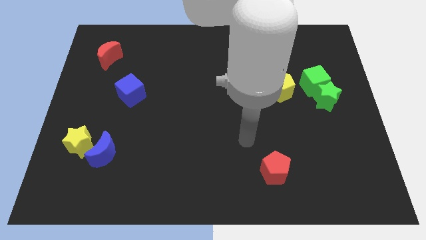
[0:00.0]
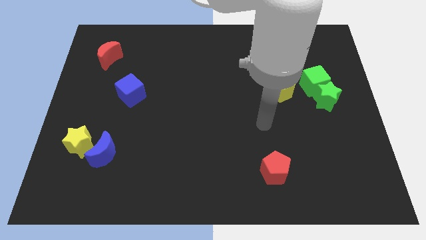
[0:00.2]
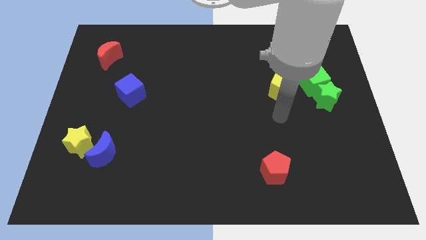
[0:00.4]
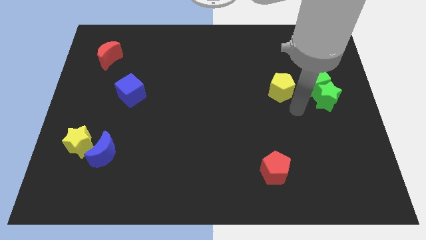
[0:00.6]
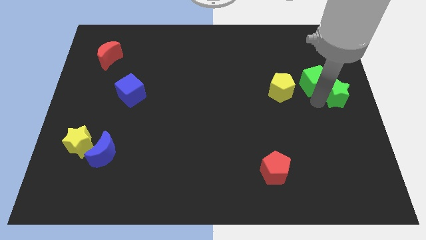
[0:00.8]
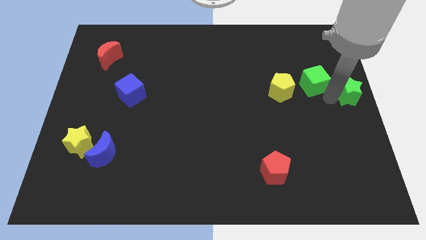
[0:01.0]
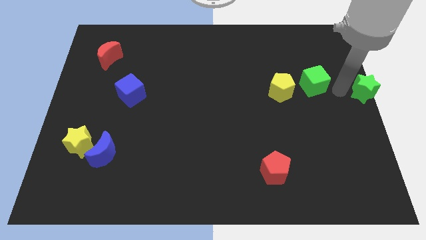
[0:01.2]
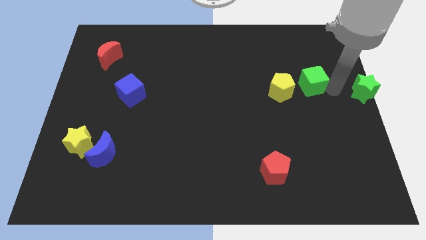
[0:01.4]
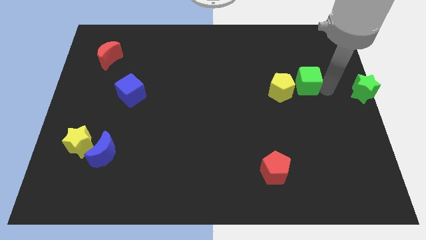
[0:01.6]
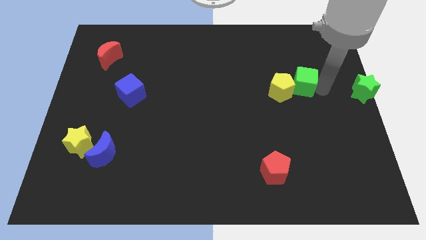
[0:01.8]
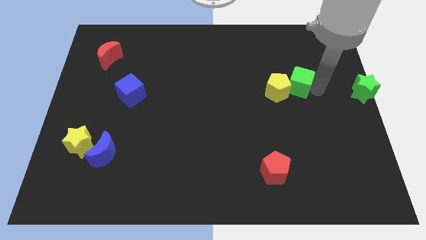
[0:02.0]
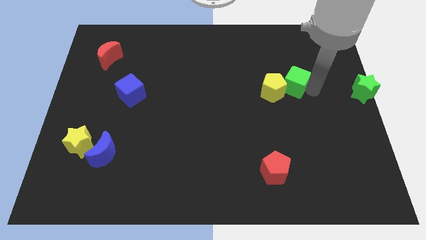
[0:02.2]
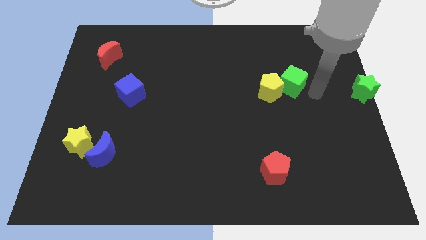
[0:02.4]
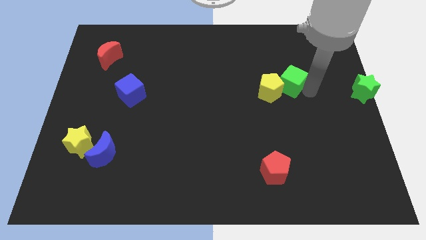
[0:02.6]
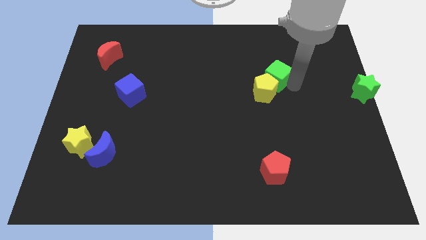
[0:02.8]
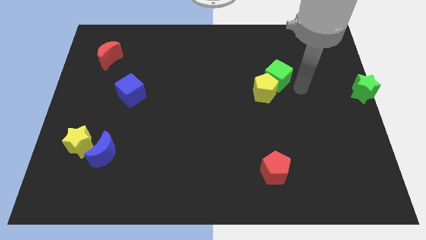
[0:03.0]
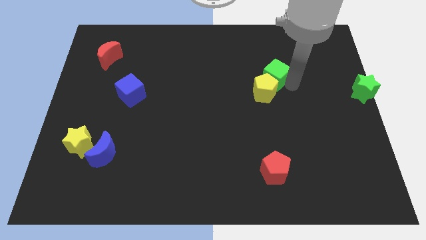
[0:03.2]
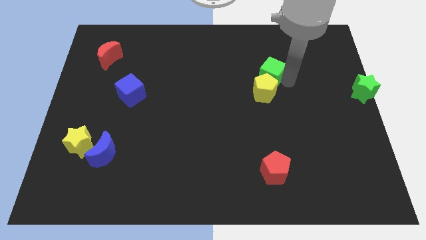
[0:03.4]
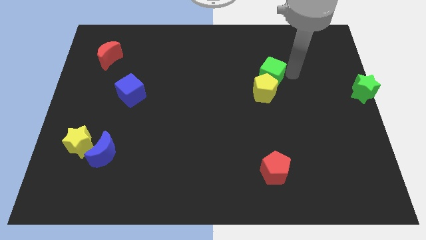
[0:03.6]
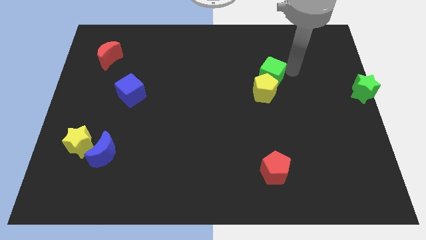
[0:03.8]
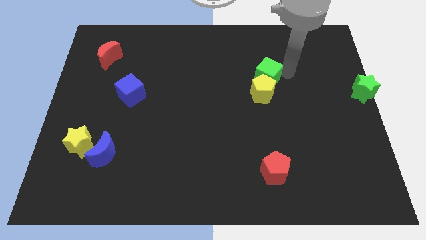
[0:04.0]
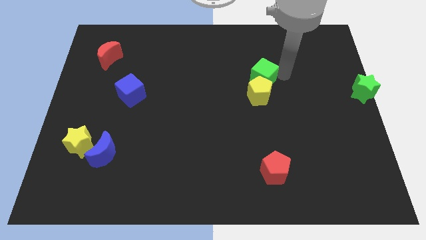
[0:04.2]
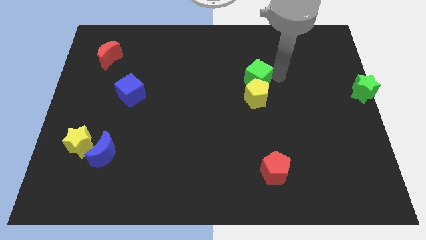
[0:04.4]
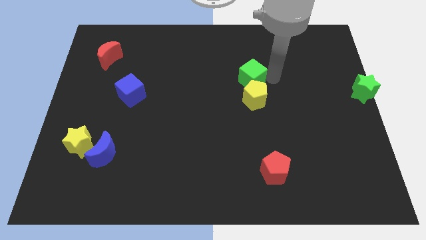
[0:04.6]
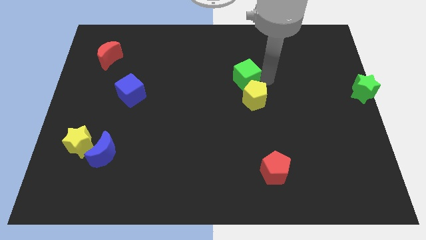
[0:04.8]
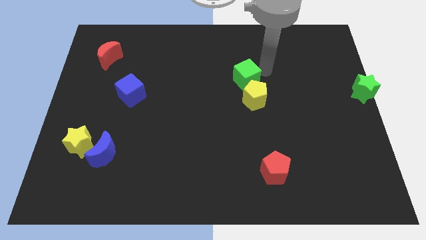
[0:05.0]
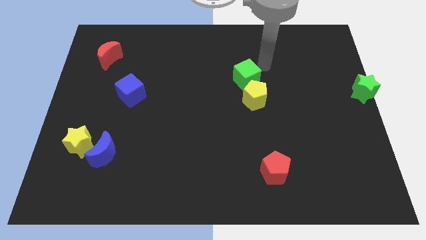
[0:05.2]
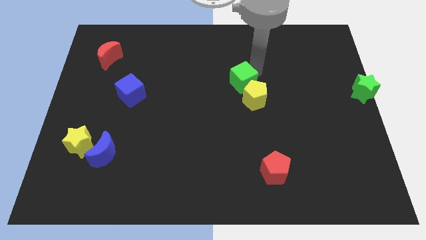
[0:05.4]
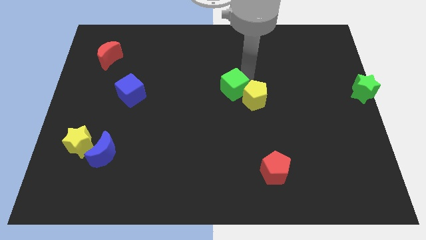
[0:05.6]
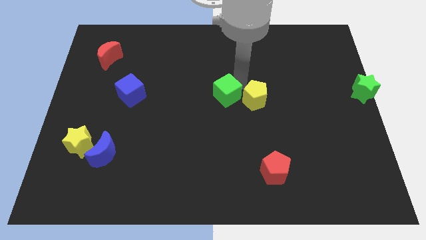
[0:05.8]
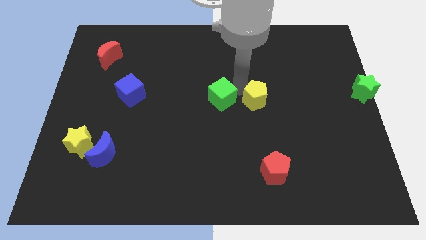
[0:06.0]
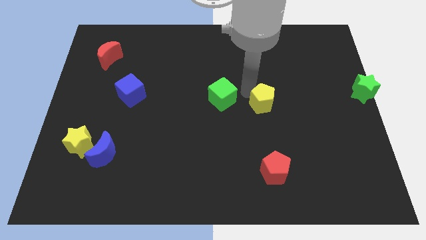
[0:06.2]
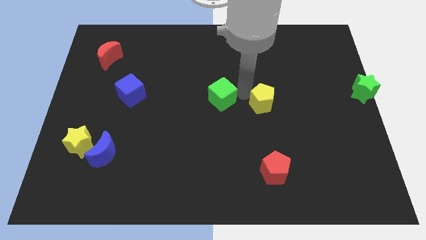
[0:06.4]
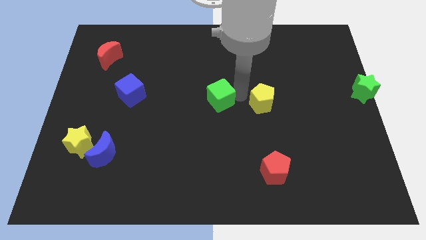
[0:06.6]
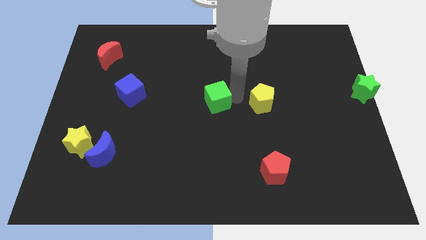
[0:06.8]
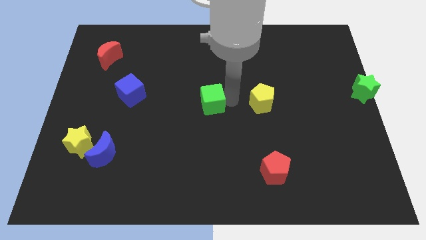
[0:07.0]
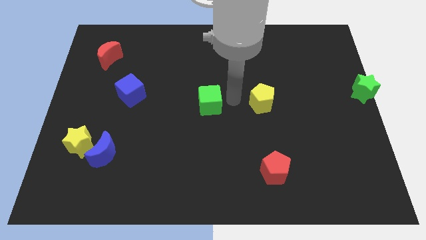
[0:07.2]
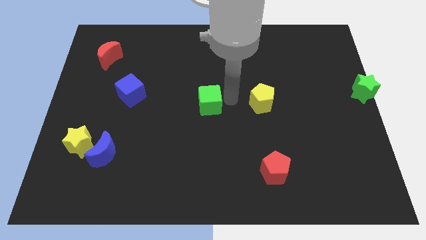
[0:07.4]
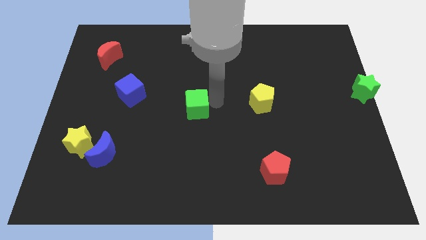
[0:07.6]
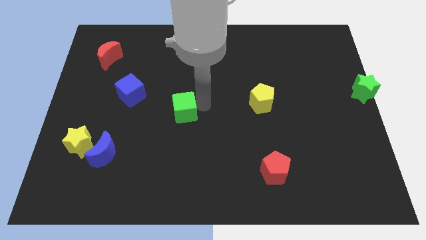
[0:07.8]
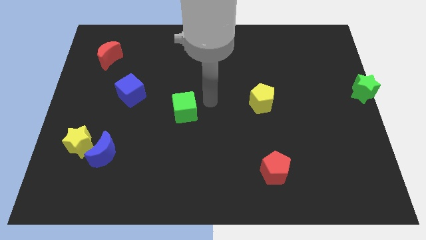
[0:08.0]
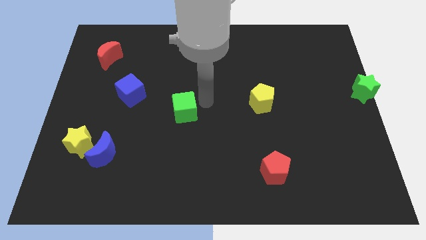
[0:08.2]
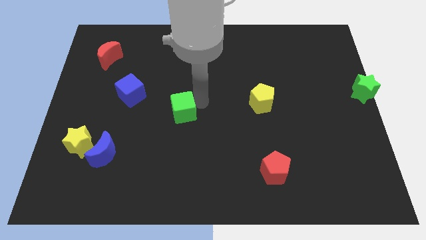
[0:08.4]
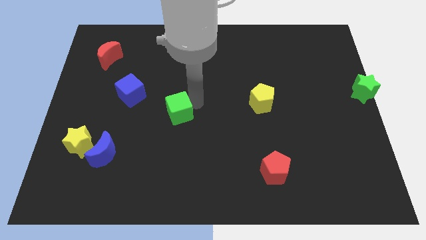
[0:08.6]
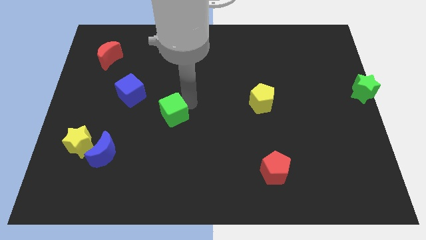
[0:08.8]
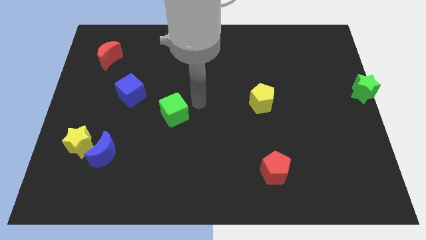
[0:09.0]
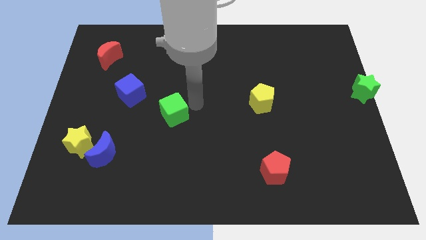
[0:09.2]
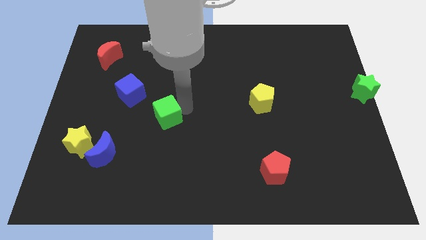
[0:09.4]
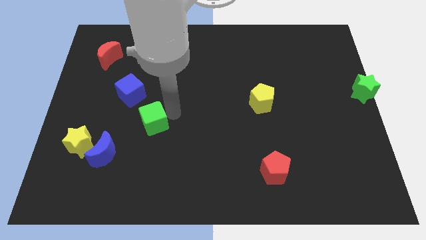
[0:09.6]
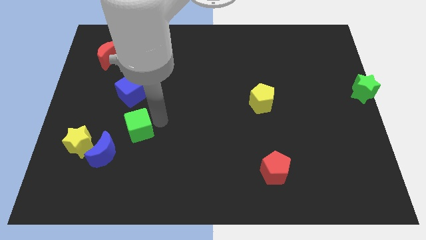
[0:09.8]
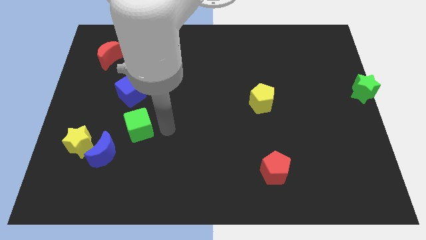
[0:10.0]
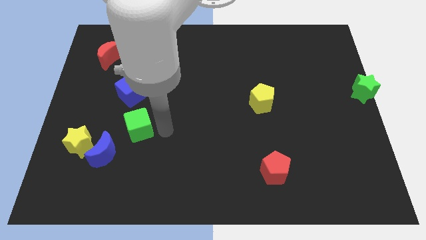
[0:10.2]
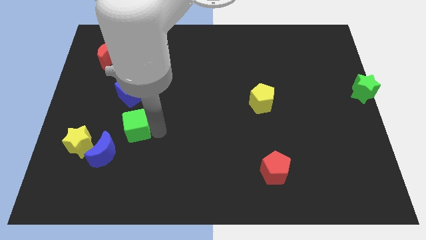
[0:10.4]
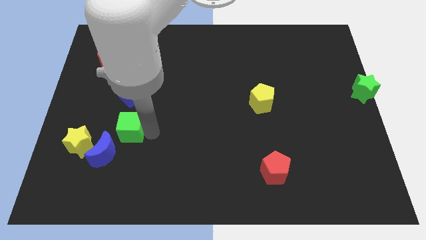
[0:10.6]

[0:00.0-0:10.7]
move the green cube diagonally up and to the right of the yellow star

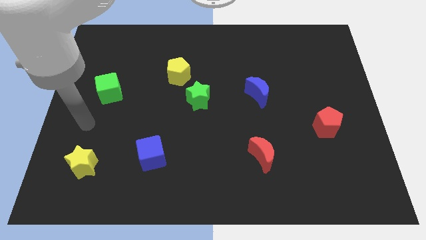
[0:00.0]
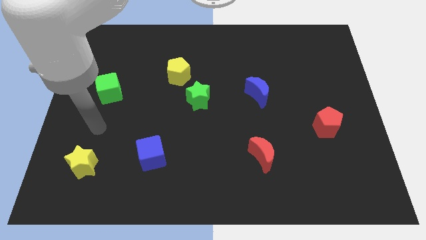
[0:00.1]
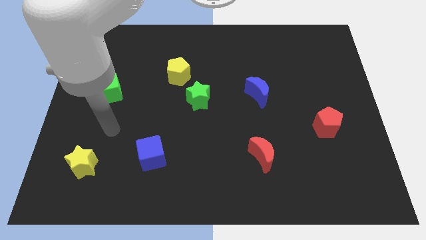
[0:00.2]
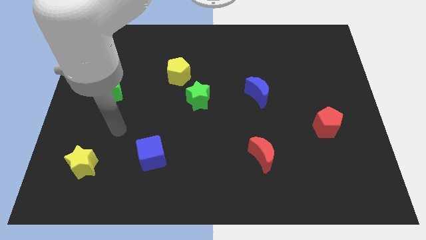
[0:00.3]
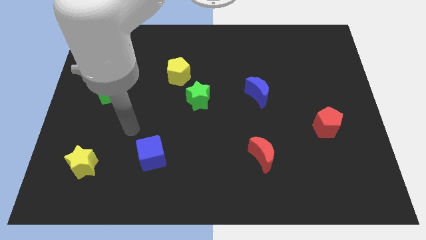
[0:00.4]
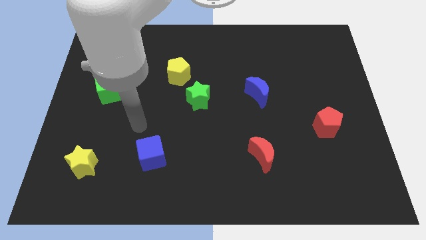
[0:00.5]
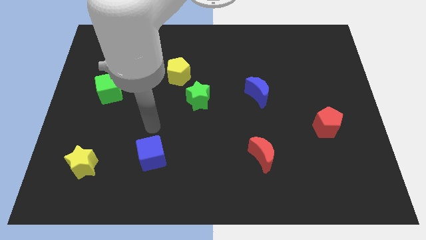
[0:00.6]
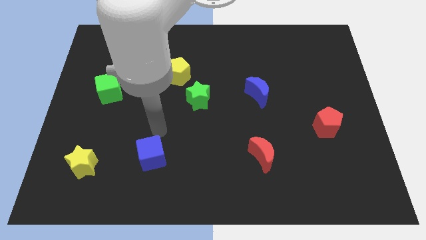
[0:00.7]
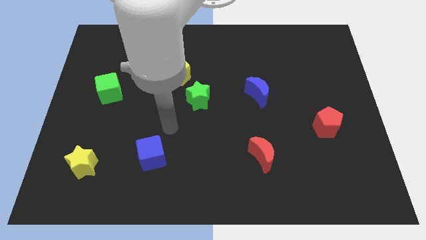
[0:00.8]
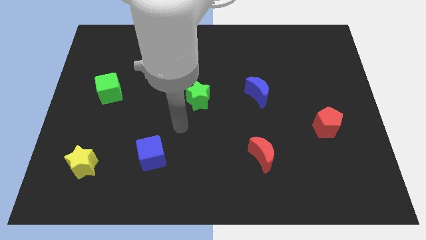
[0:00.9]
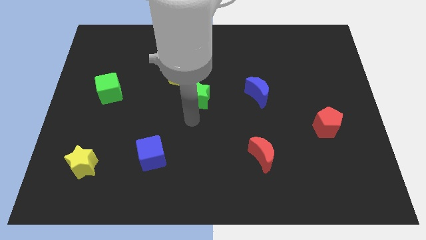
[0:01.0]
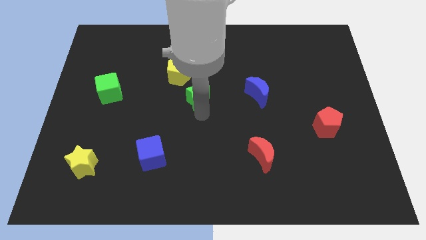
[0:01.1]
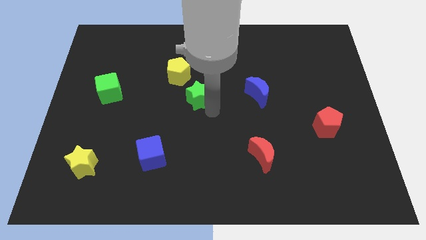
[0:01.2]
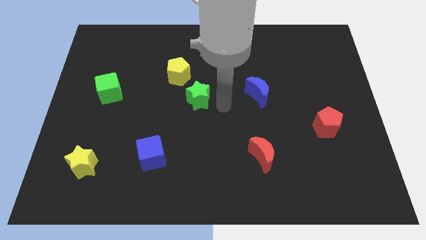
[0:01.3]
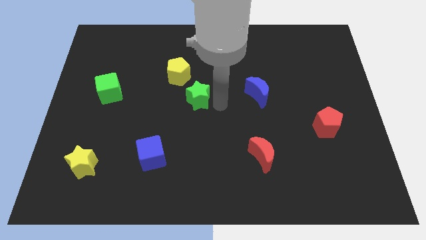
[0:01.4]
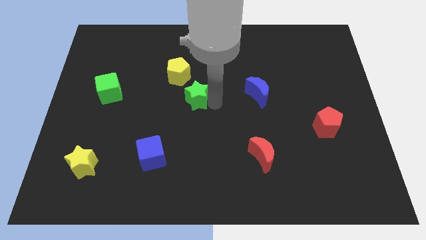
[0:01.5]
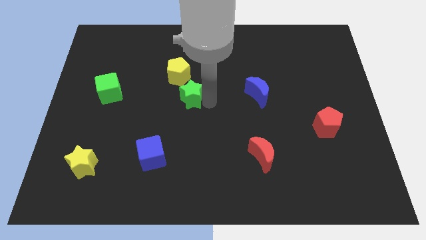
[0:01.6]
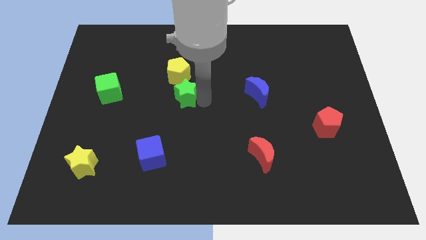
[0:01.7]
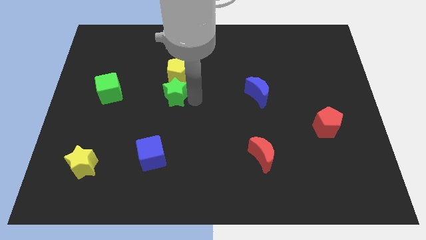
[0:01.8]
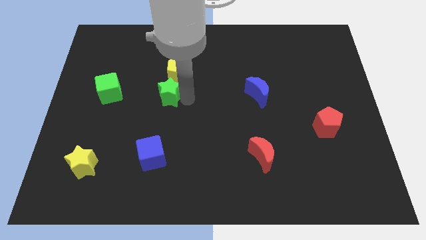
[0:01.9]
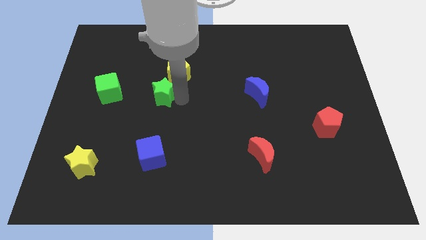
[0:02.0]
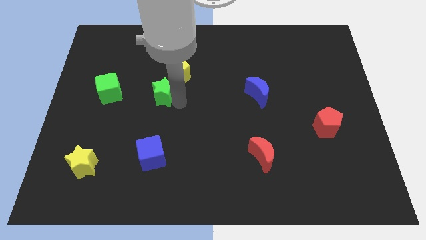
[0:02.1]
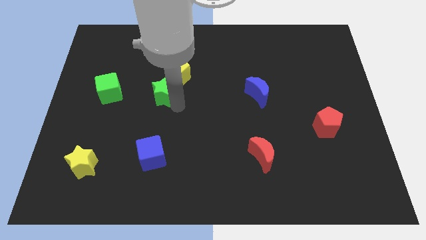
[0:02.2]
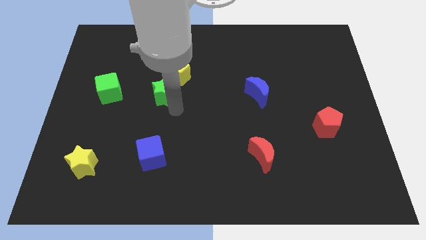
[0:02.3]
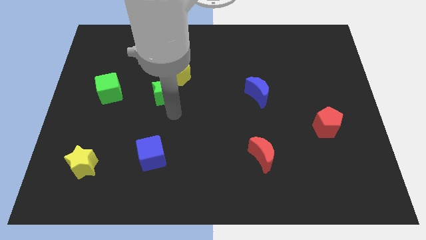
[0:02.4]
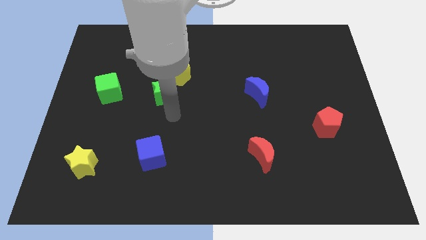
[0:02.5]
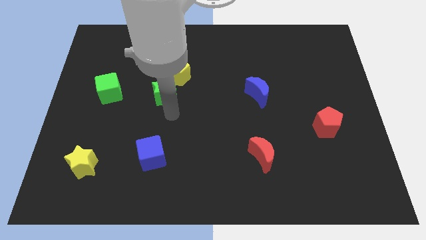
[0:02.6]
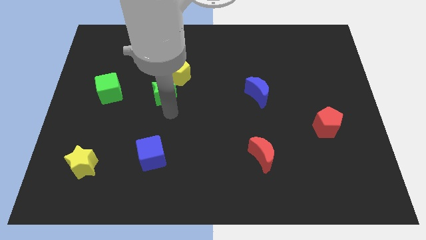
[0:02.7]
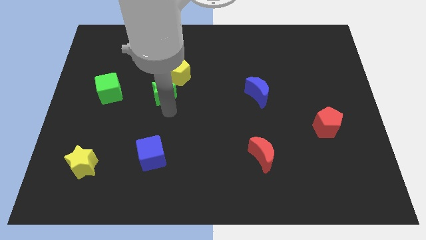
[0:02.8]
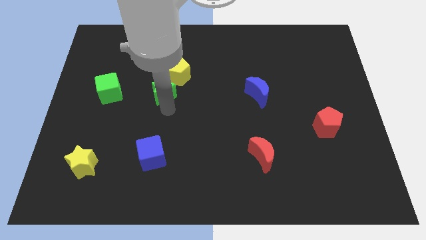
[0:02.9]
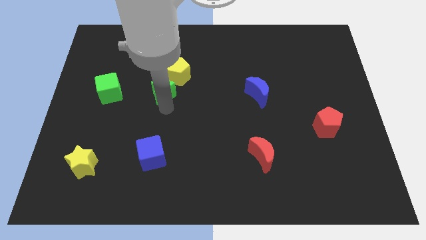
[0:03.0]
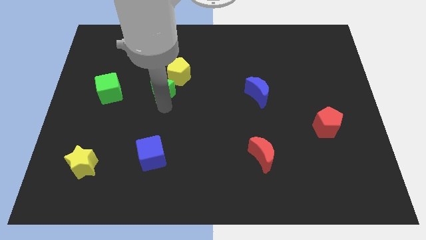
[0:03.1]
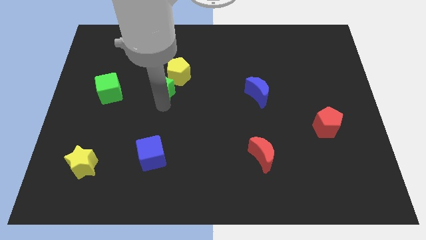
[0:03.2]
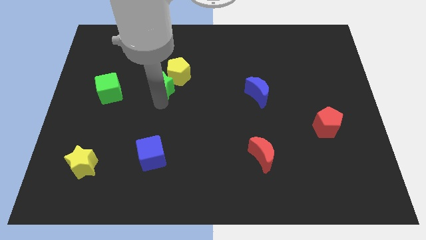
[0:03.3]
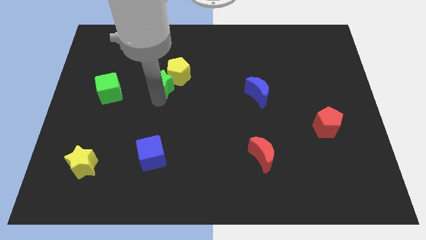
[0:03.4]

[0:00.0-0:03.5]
slide the green star to the left of the yellow pentagon
